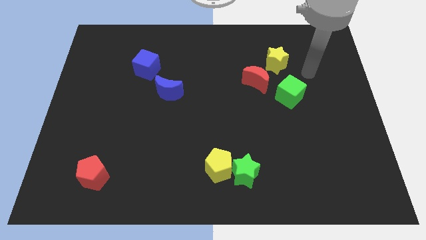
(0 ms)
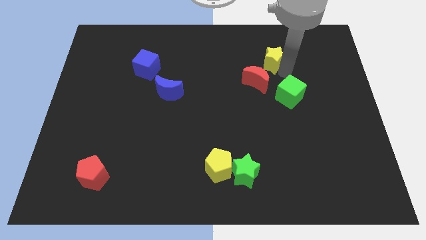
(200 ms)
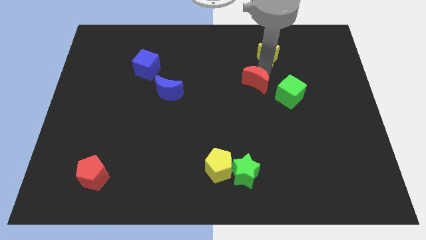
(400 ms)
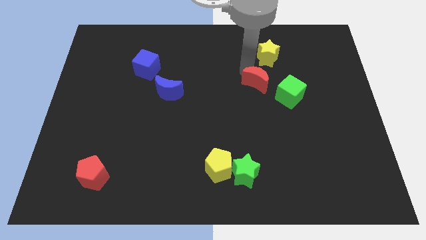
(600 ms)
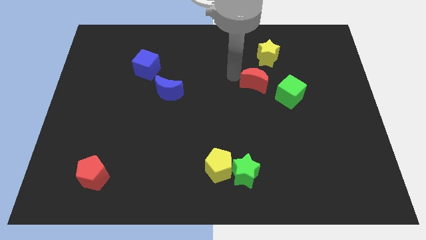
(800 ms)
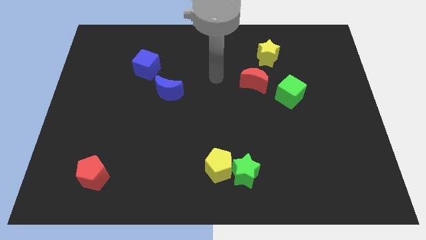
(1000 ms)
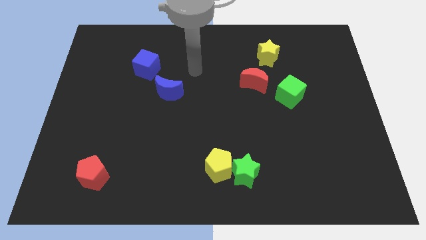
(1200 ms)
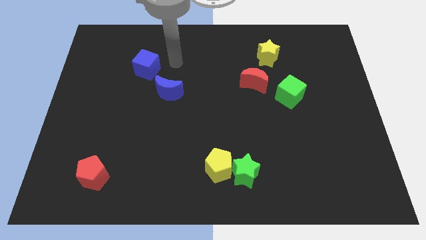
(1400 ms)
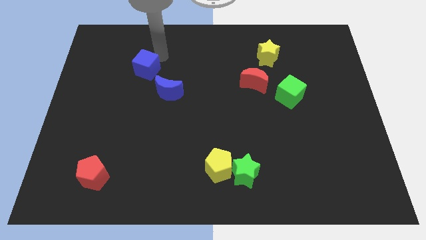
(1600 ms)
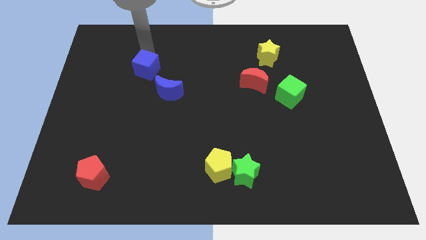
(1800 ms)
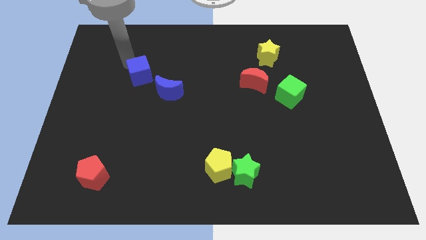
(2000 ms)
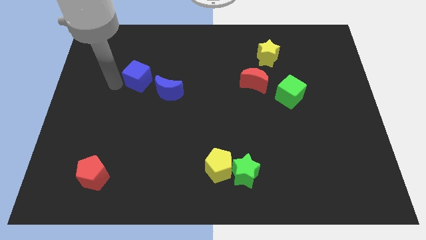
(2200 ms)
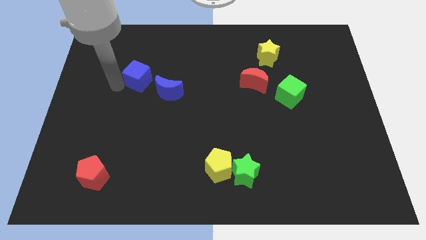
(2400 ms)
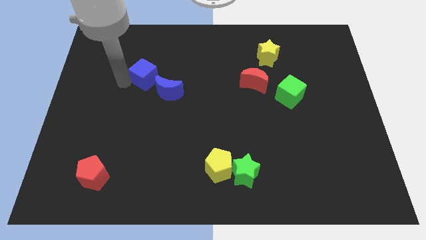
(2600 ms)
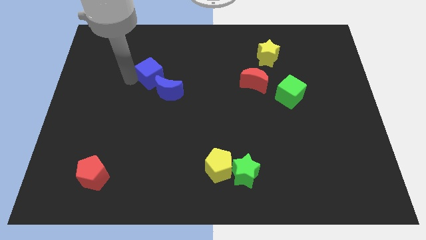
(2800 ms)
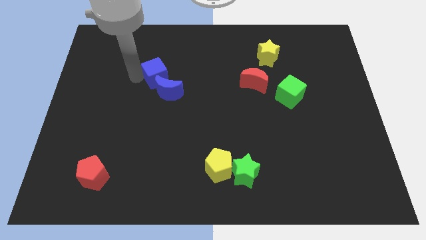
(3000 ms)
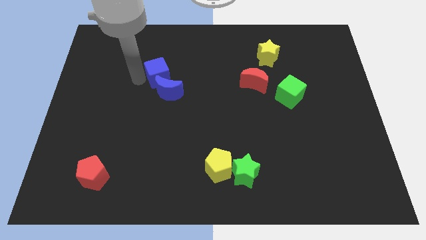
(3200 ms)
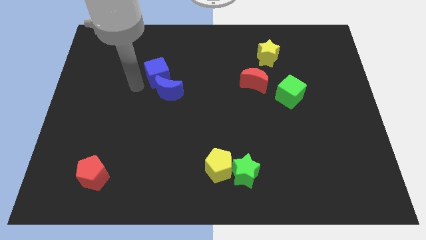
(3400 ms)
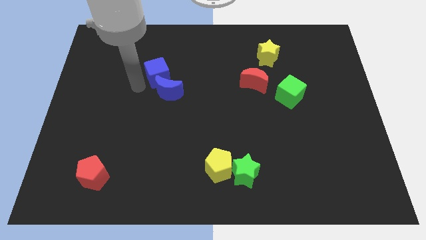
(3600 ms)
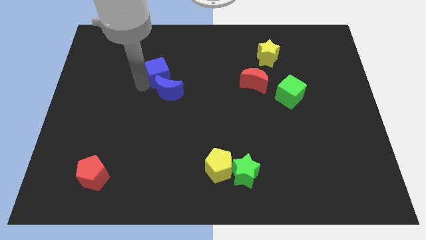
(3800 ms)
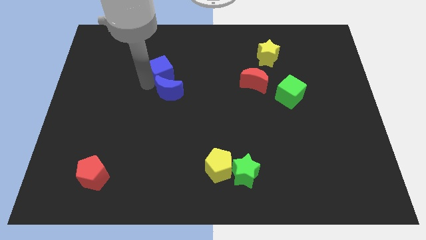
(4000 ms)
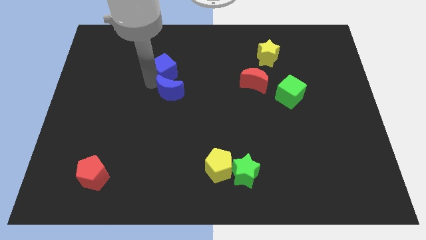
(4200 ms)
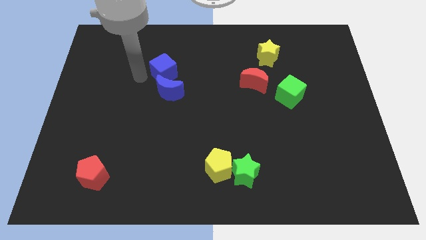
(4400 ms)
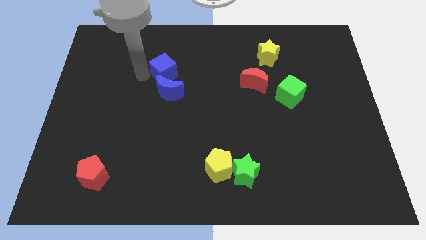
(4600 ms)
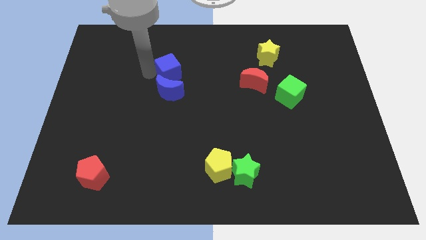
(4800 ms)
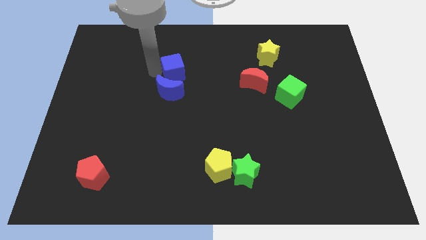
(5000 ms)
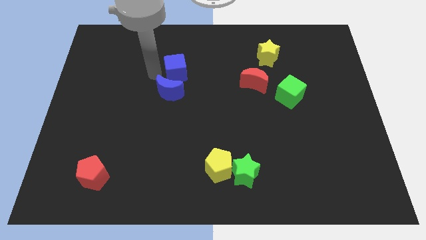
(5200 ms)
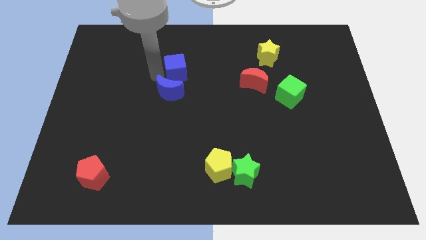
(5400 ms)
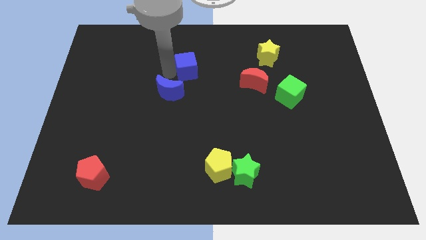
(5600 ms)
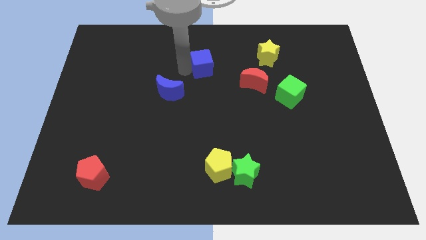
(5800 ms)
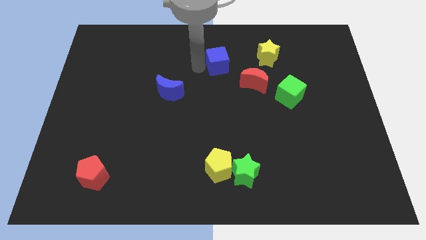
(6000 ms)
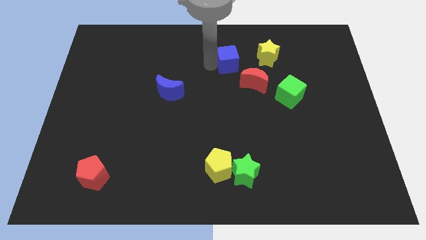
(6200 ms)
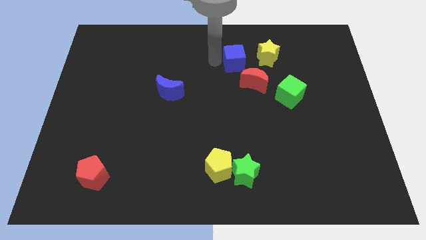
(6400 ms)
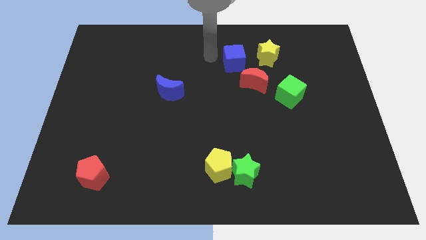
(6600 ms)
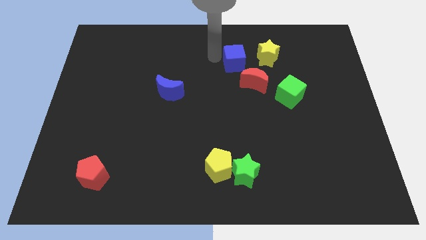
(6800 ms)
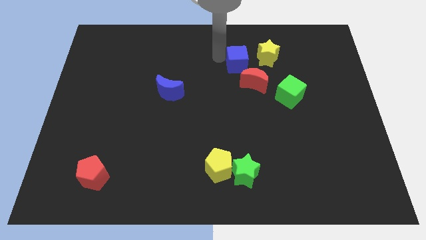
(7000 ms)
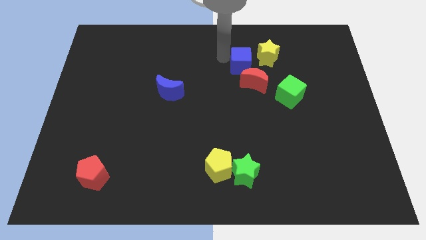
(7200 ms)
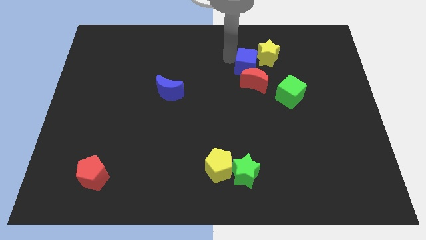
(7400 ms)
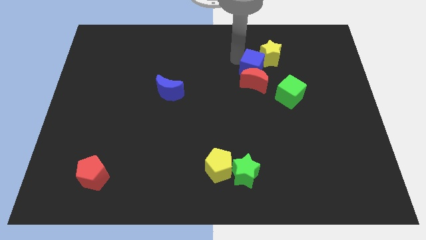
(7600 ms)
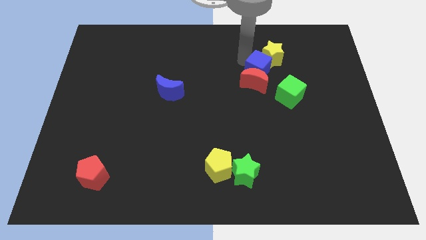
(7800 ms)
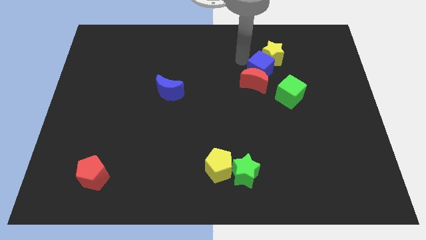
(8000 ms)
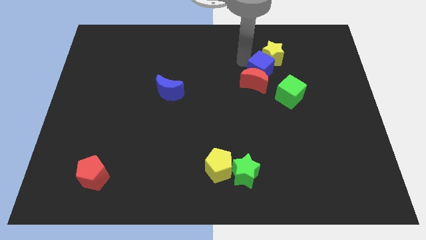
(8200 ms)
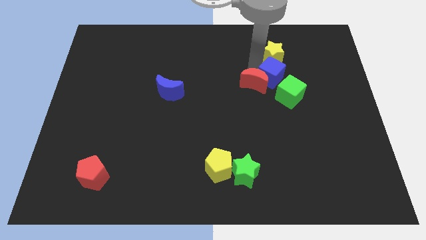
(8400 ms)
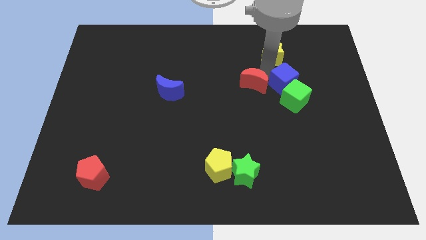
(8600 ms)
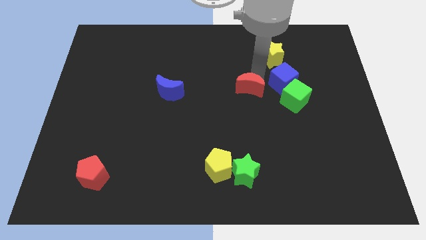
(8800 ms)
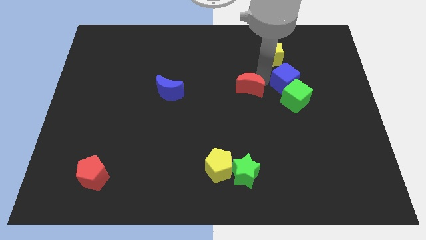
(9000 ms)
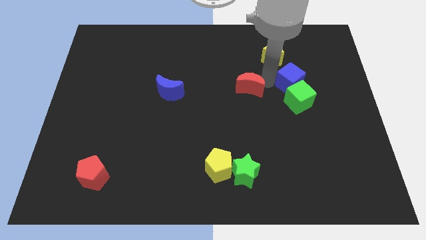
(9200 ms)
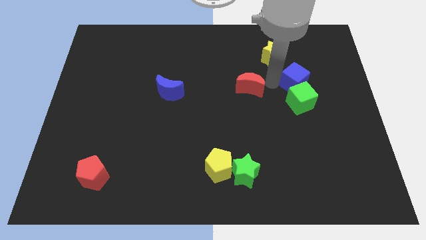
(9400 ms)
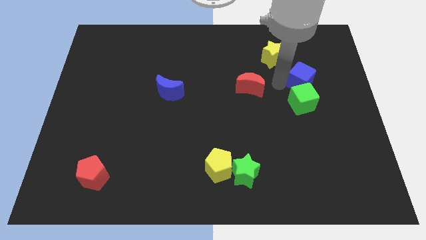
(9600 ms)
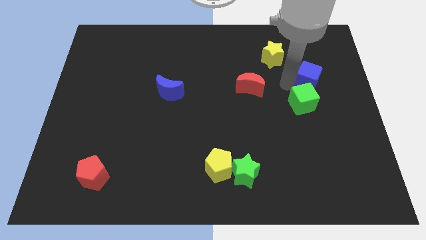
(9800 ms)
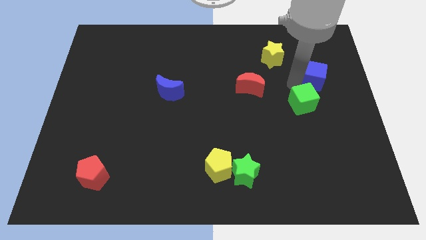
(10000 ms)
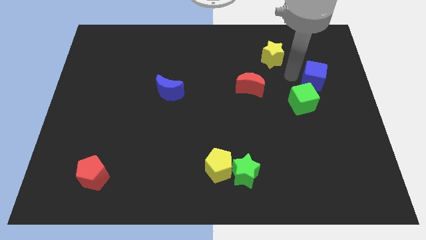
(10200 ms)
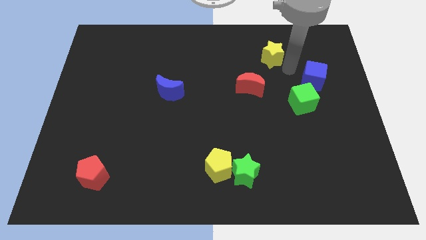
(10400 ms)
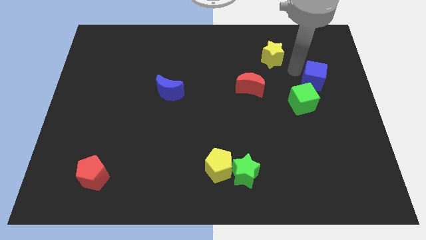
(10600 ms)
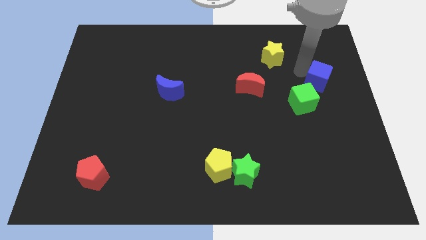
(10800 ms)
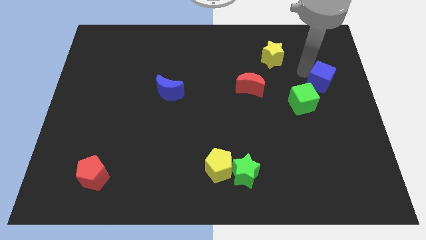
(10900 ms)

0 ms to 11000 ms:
slide the blue cube to the center right
